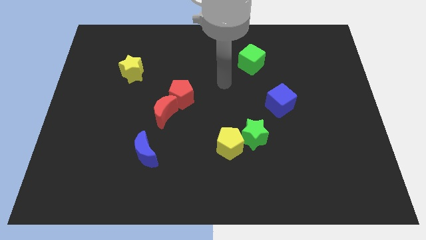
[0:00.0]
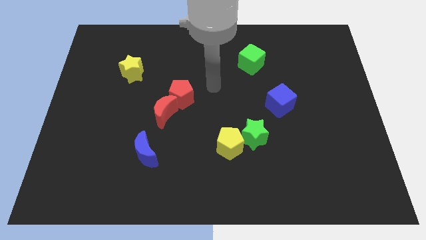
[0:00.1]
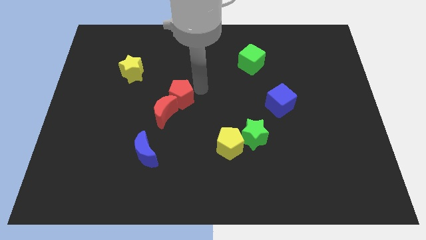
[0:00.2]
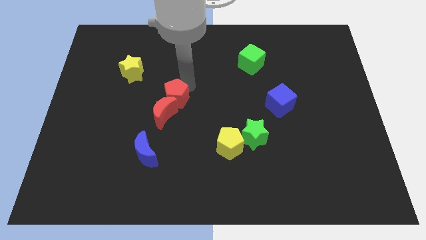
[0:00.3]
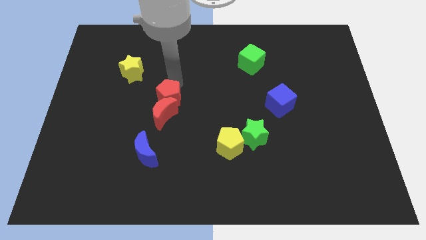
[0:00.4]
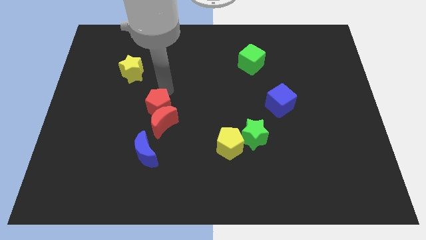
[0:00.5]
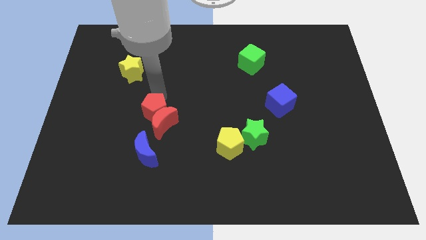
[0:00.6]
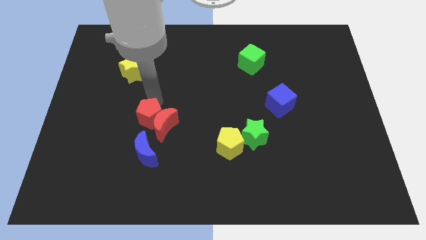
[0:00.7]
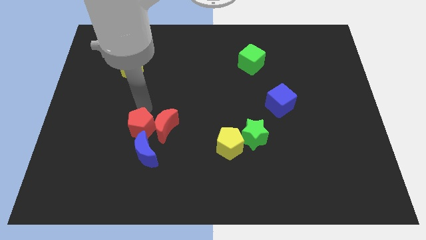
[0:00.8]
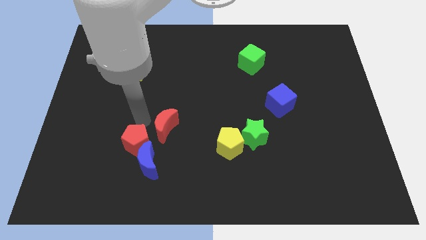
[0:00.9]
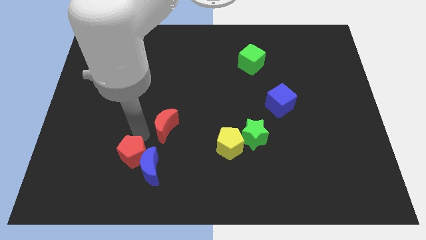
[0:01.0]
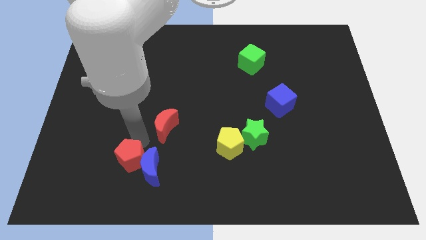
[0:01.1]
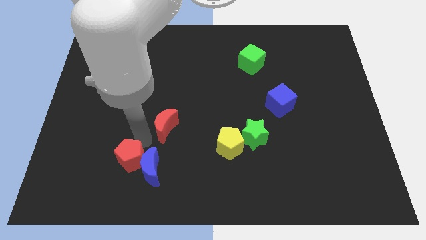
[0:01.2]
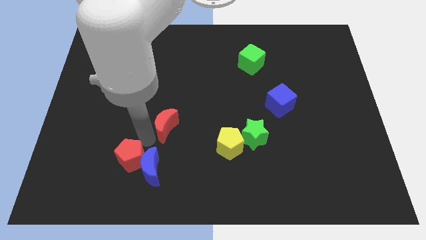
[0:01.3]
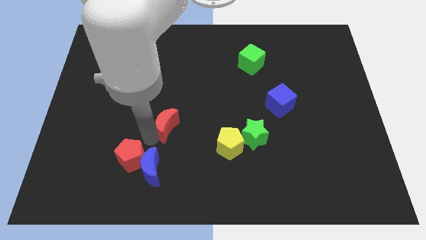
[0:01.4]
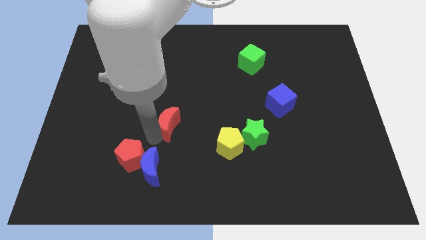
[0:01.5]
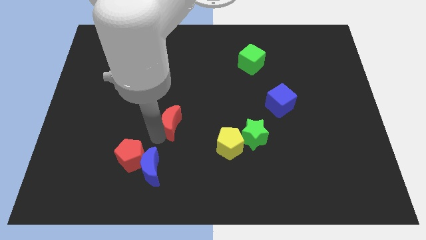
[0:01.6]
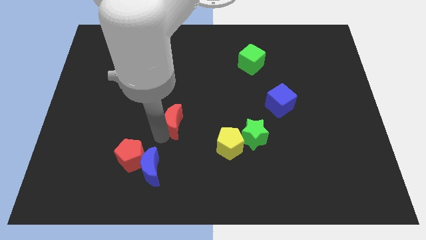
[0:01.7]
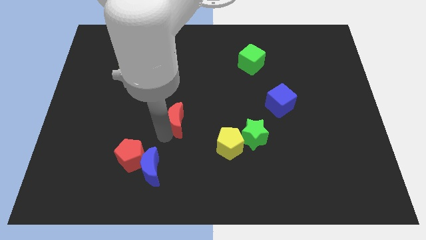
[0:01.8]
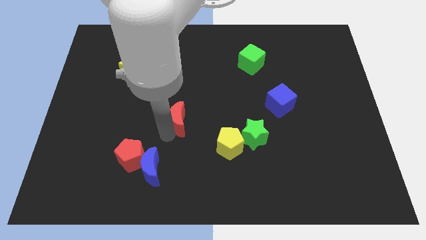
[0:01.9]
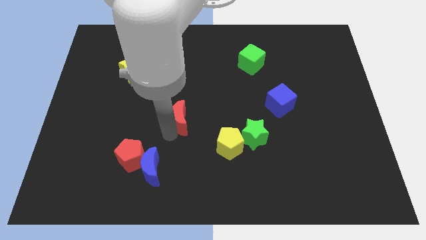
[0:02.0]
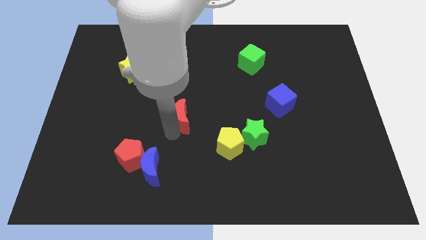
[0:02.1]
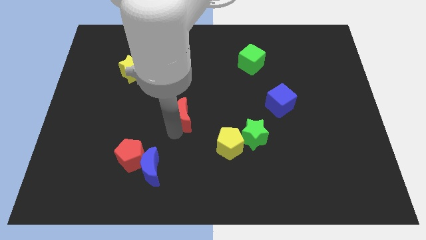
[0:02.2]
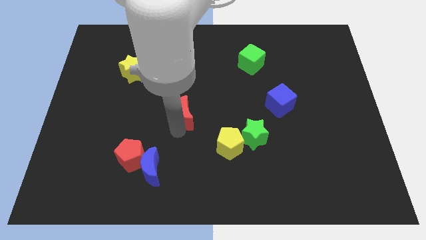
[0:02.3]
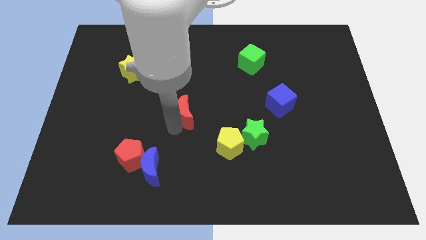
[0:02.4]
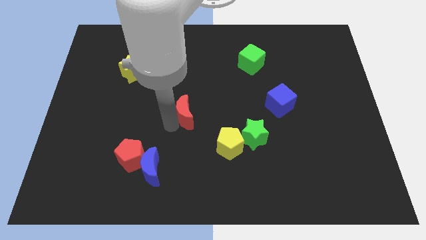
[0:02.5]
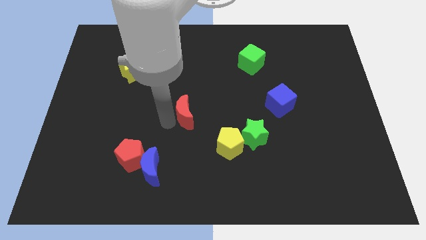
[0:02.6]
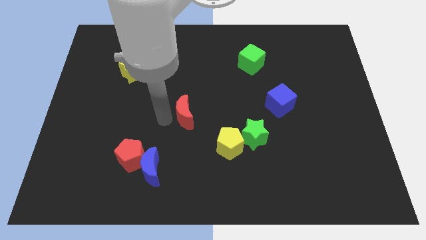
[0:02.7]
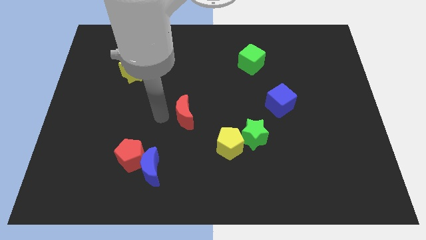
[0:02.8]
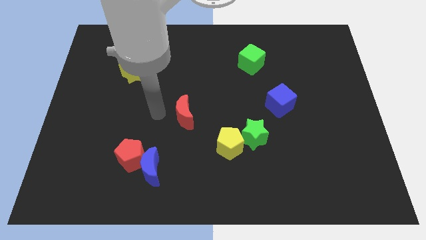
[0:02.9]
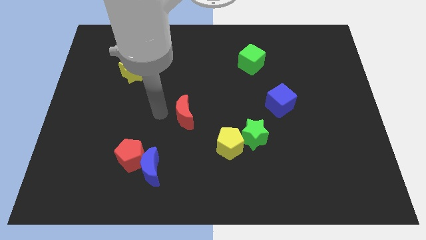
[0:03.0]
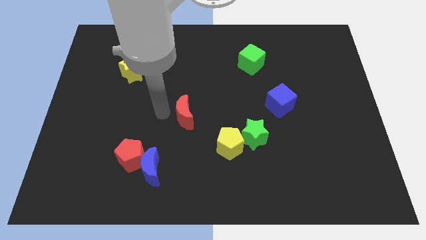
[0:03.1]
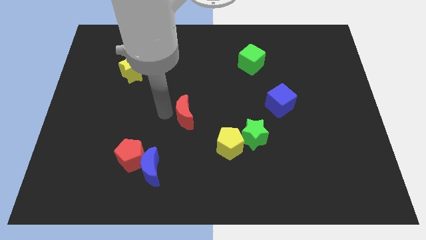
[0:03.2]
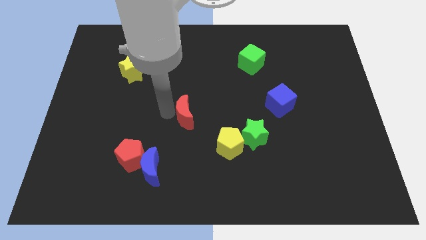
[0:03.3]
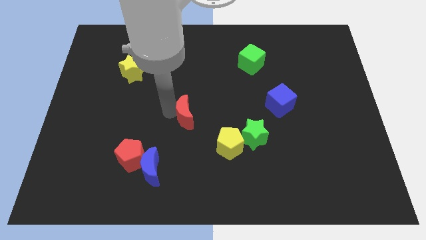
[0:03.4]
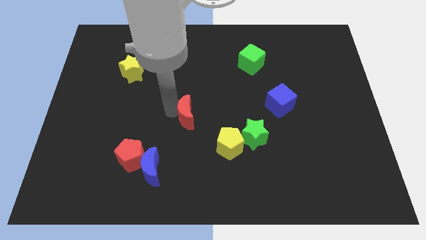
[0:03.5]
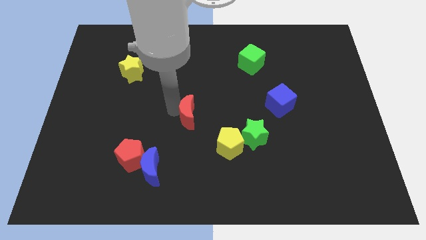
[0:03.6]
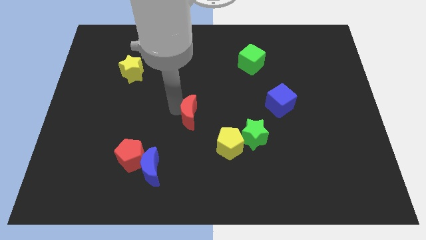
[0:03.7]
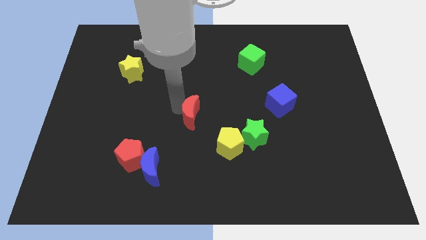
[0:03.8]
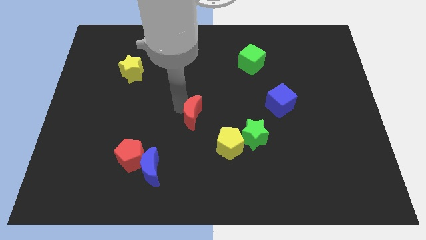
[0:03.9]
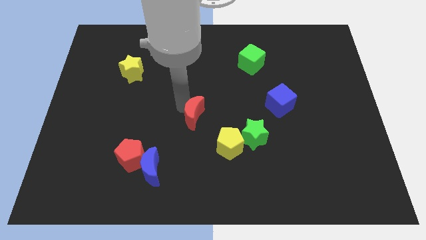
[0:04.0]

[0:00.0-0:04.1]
slide the red moon right a bit

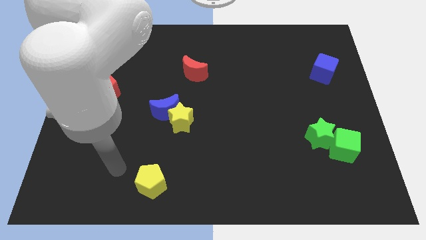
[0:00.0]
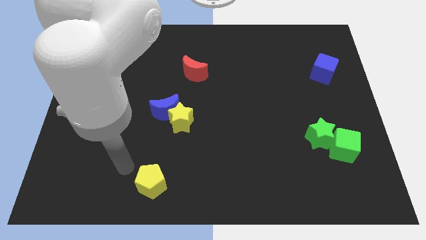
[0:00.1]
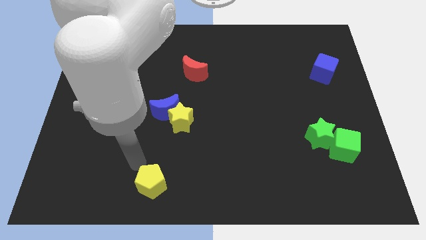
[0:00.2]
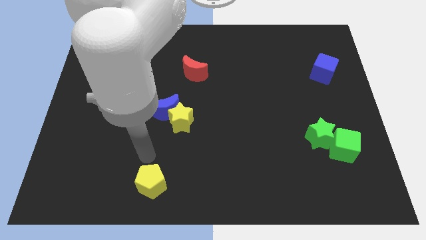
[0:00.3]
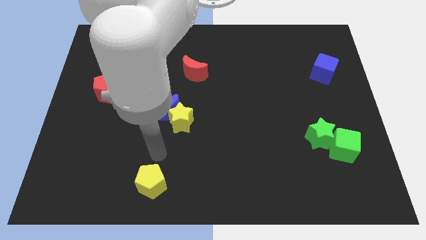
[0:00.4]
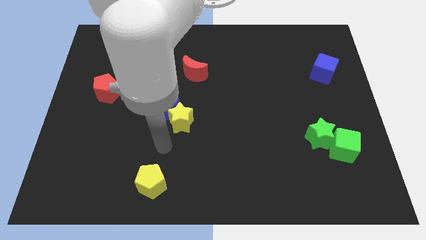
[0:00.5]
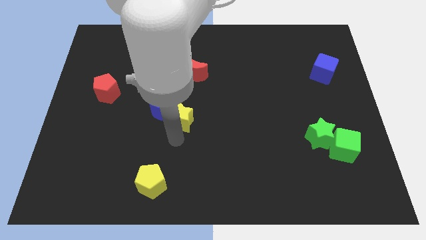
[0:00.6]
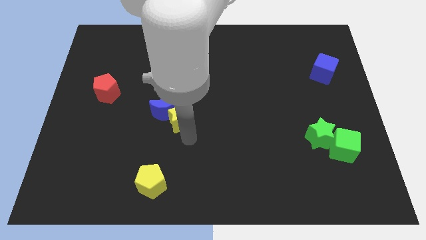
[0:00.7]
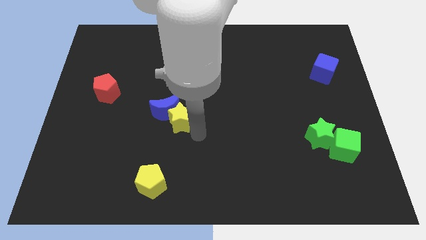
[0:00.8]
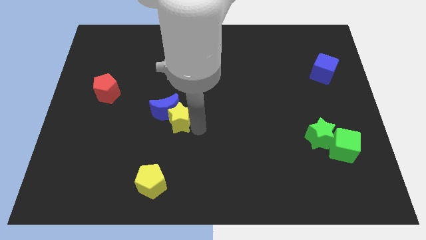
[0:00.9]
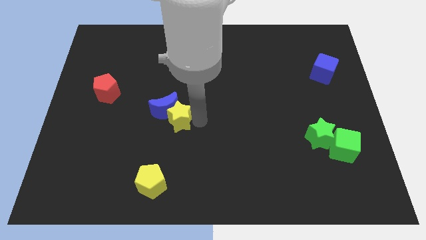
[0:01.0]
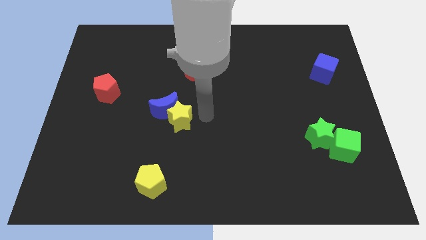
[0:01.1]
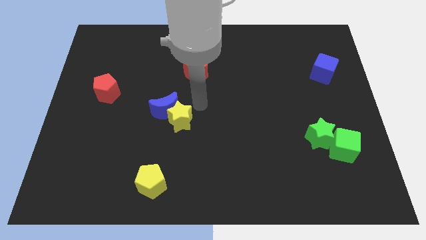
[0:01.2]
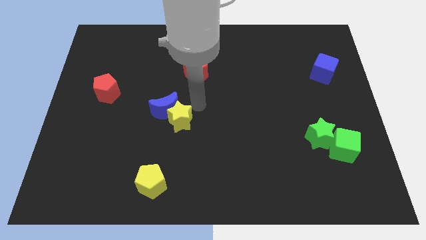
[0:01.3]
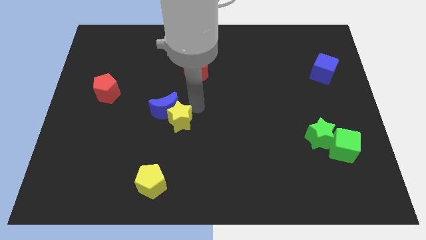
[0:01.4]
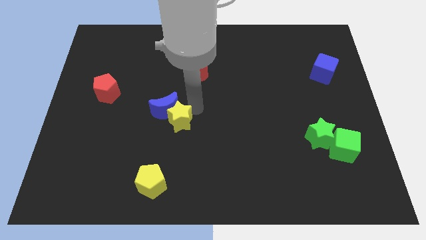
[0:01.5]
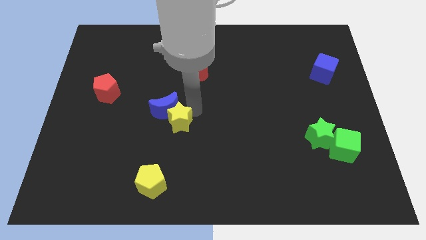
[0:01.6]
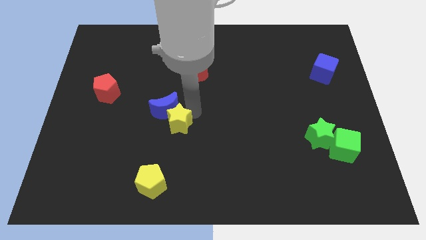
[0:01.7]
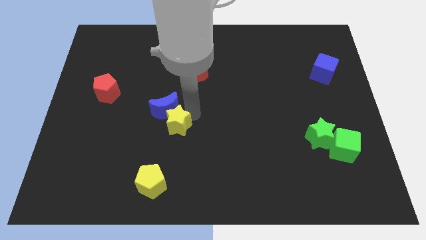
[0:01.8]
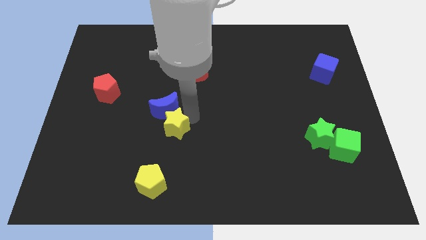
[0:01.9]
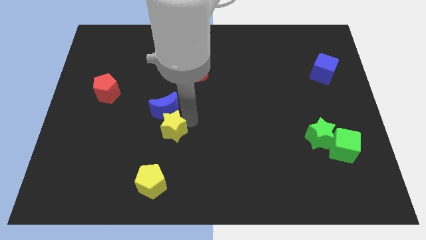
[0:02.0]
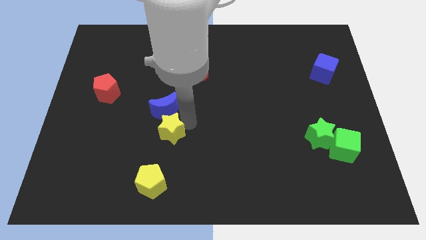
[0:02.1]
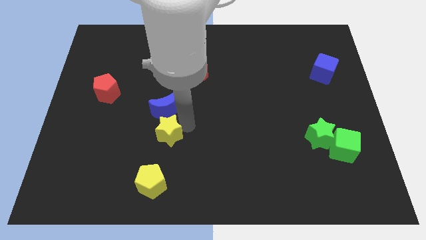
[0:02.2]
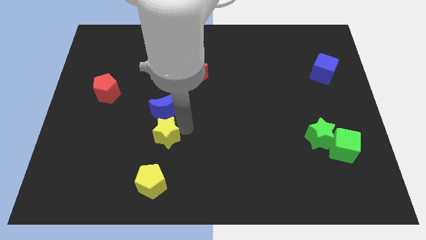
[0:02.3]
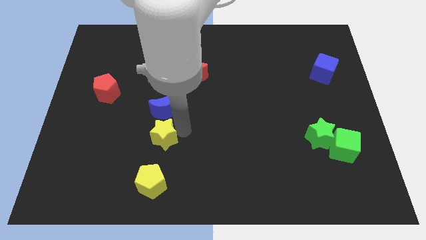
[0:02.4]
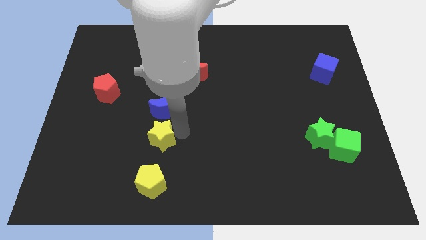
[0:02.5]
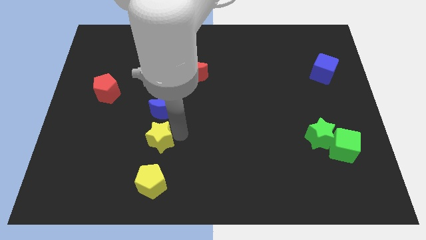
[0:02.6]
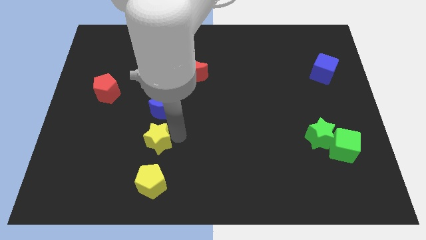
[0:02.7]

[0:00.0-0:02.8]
move the yellow star somewhat down and then left

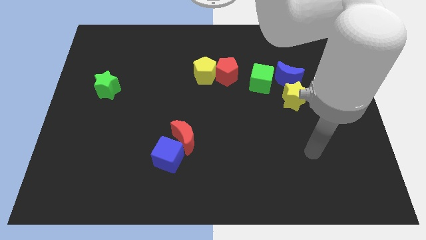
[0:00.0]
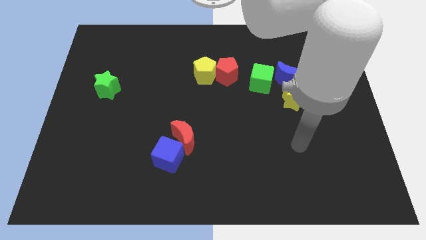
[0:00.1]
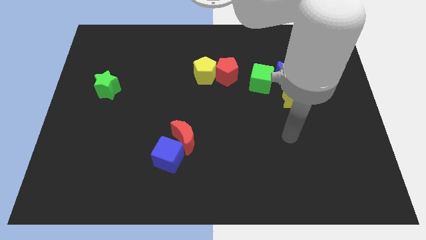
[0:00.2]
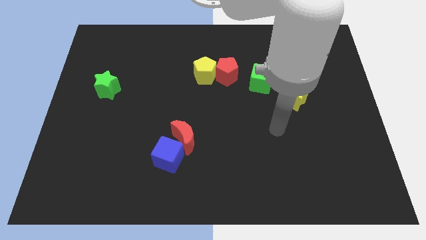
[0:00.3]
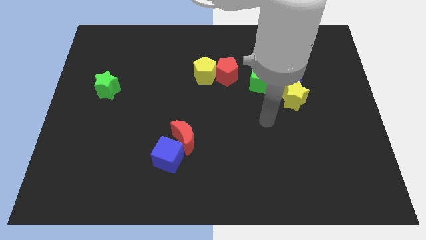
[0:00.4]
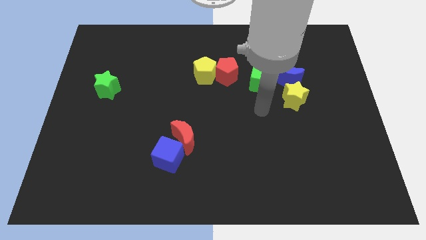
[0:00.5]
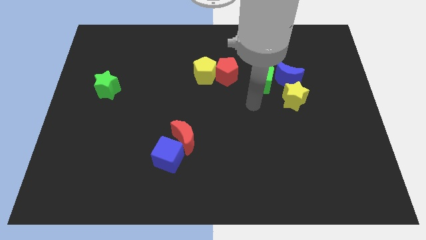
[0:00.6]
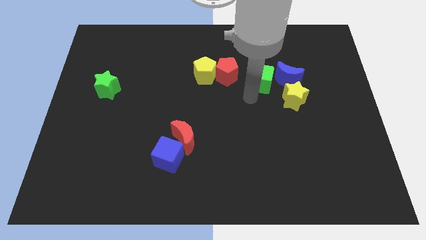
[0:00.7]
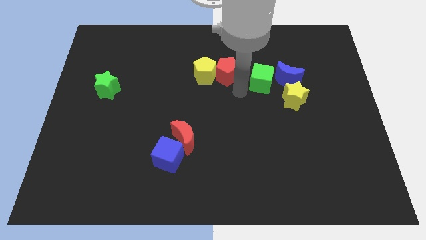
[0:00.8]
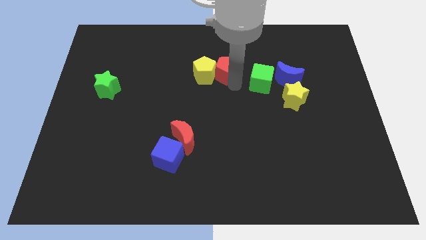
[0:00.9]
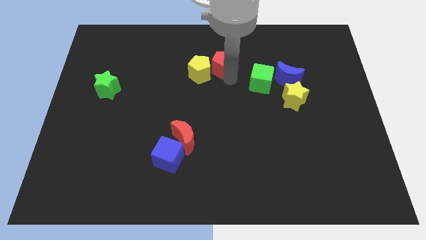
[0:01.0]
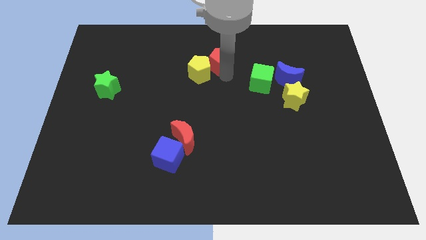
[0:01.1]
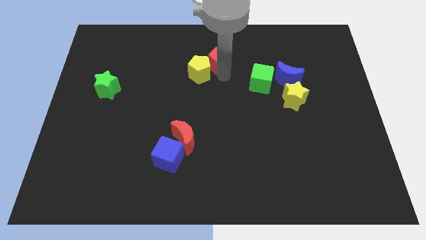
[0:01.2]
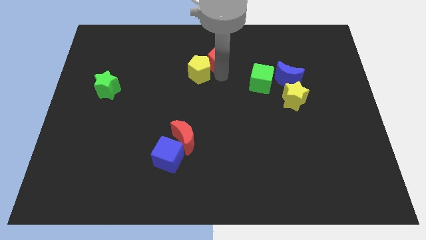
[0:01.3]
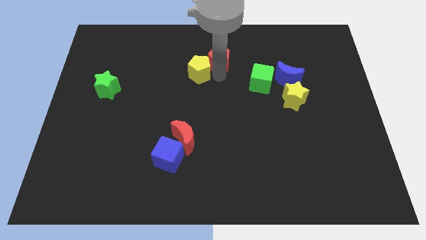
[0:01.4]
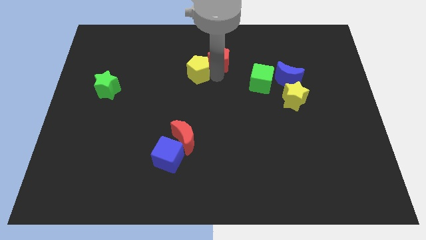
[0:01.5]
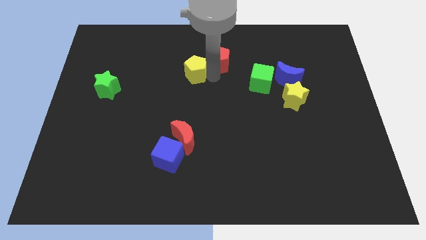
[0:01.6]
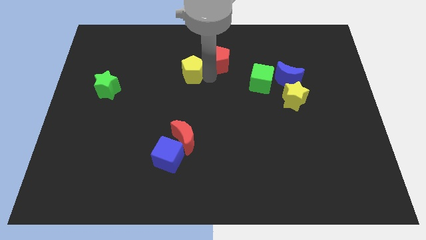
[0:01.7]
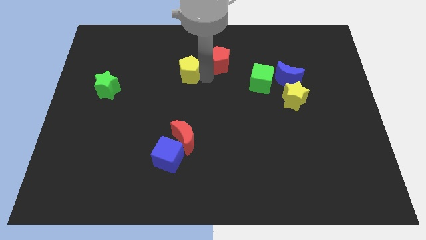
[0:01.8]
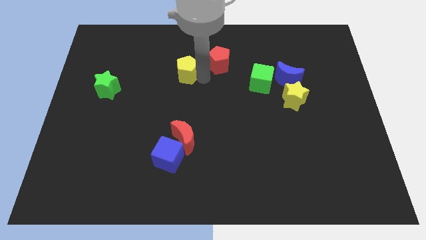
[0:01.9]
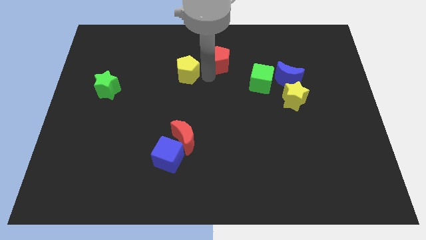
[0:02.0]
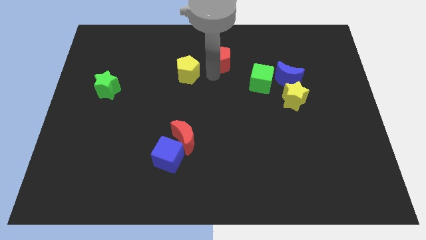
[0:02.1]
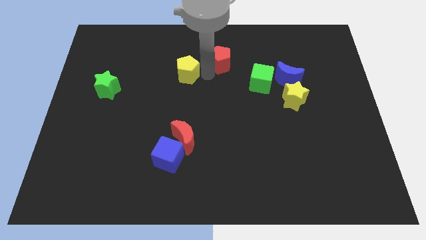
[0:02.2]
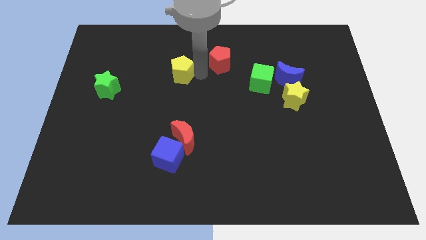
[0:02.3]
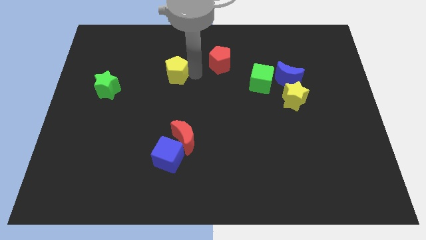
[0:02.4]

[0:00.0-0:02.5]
move the yellow pentagon somewhat to the left
